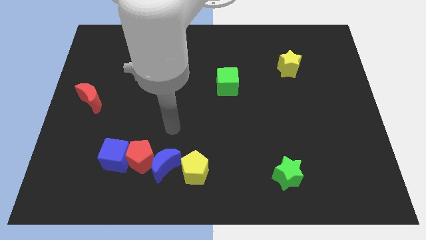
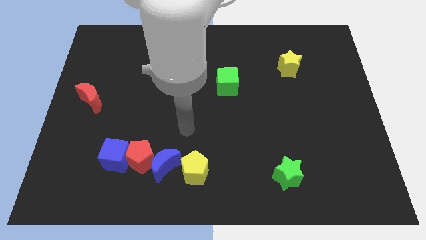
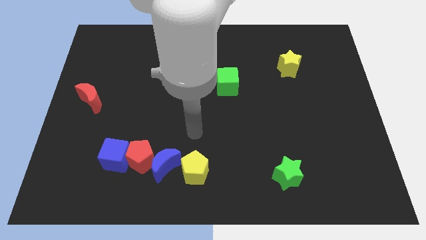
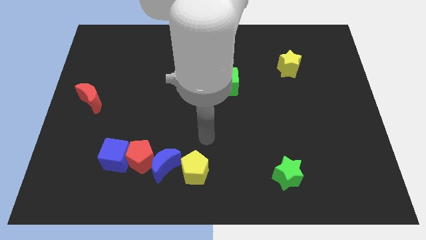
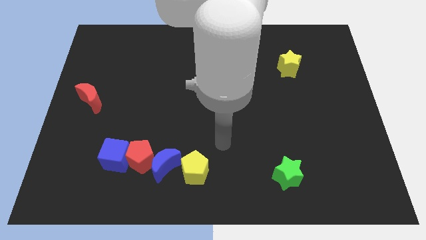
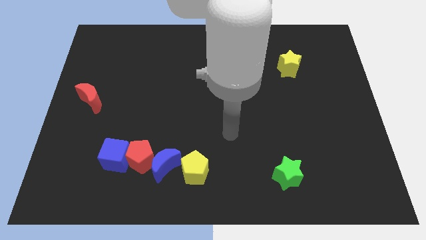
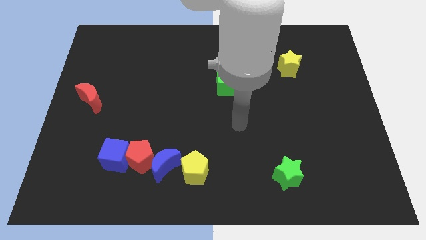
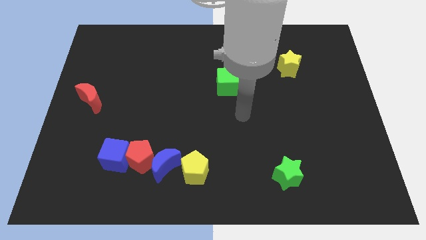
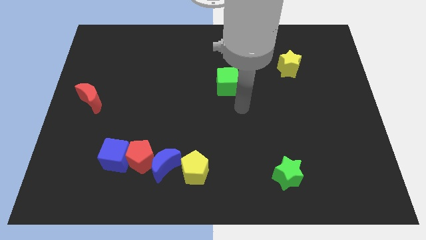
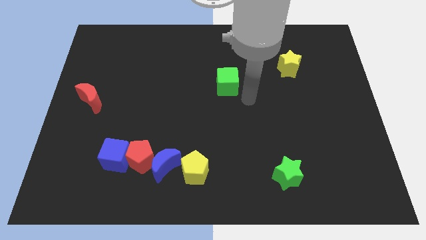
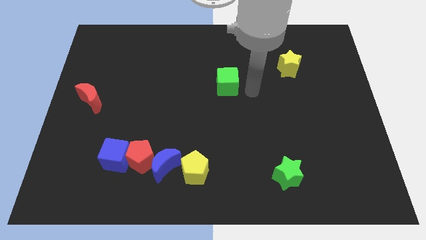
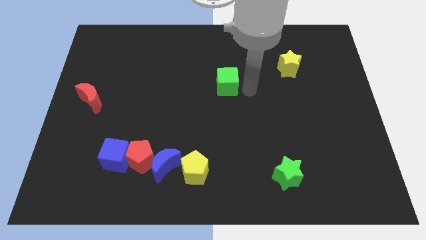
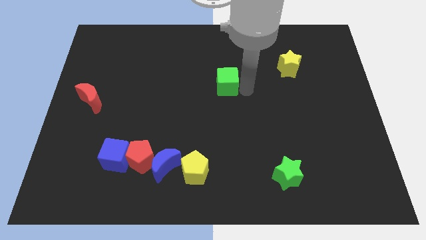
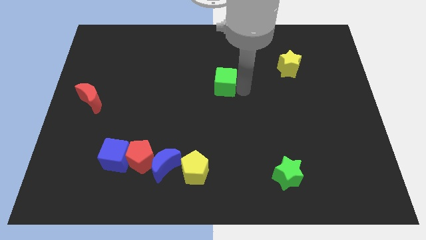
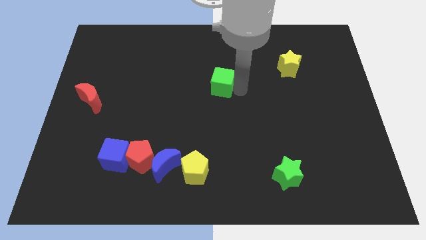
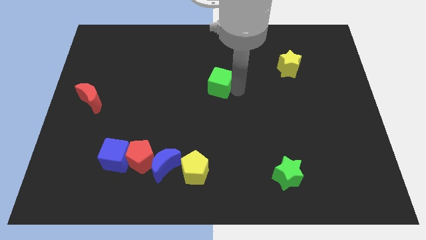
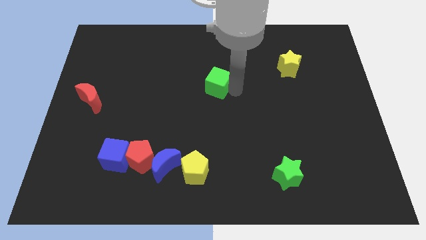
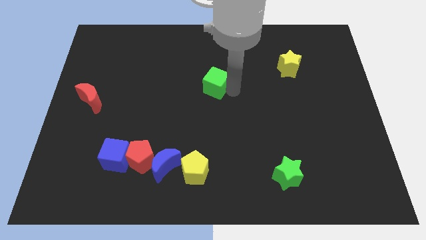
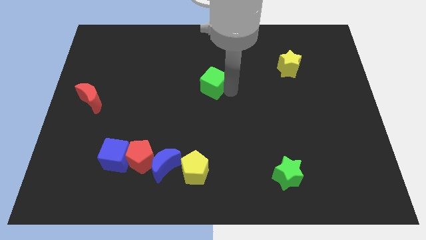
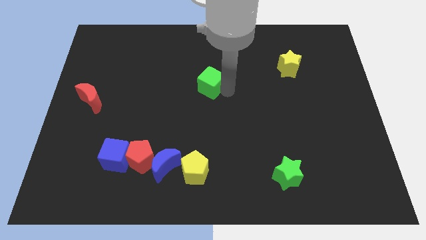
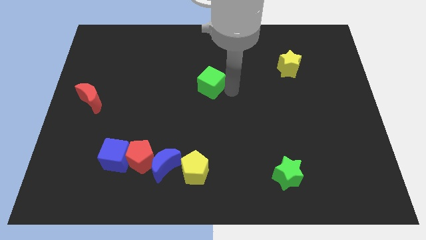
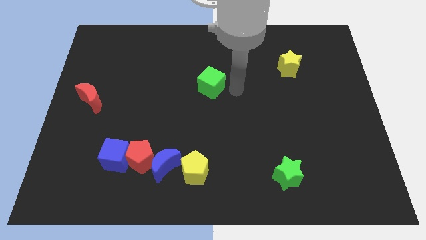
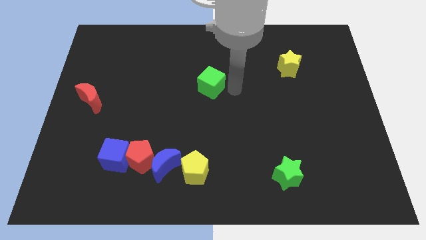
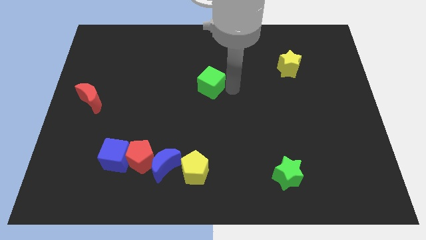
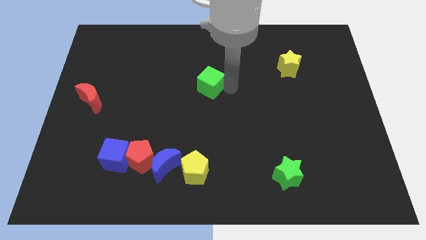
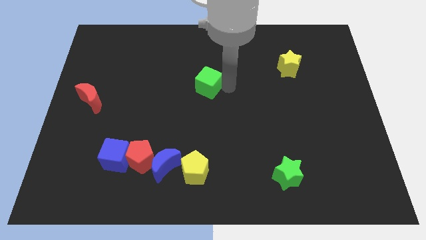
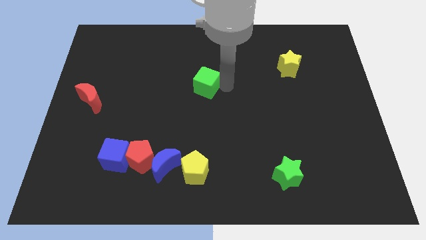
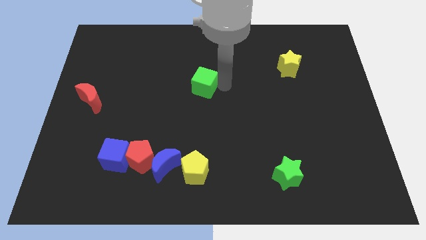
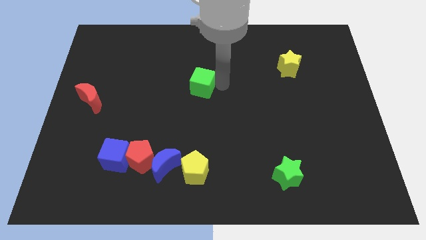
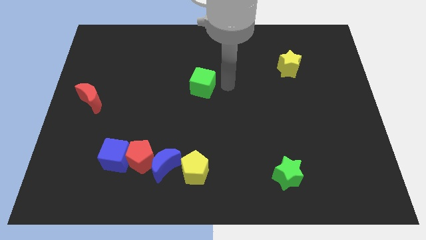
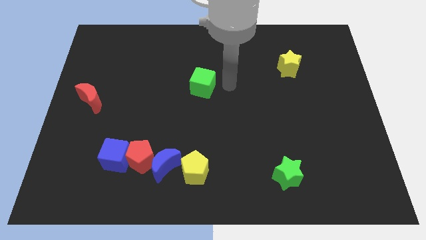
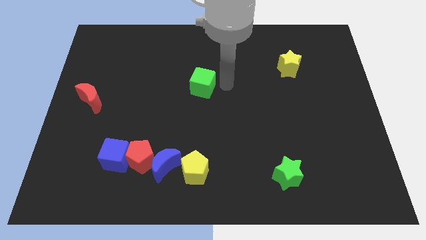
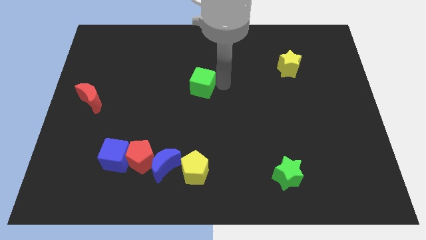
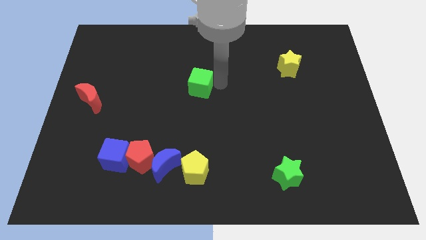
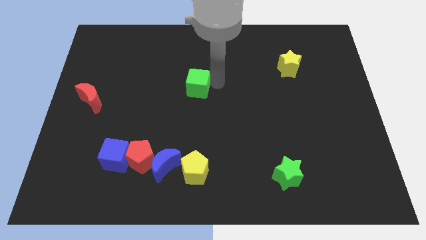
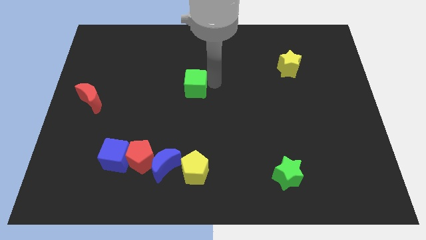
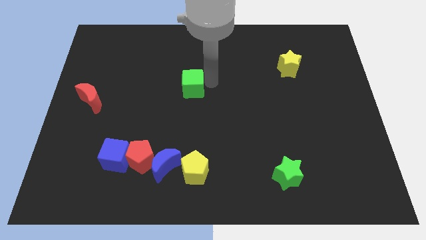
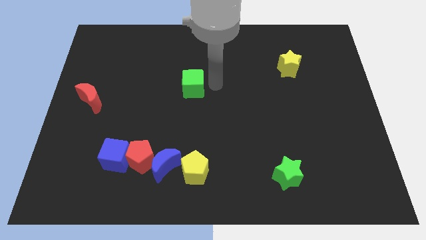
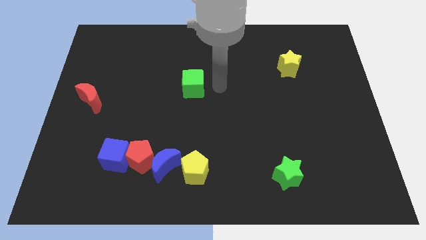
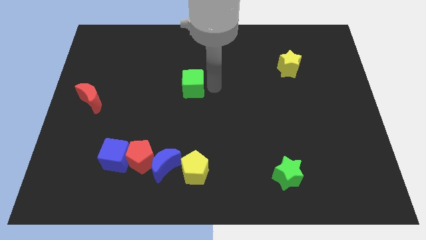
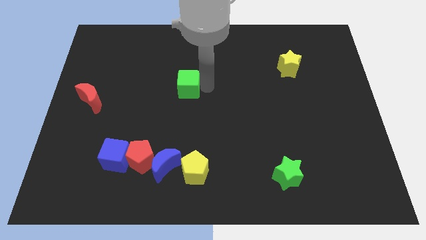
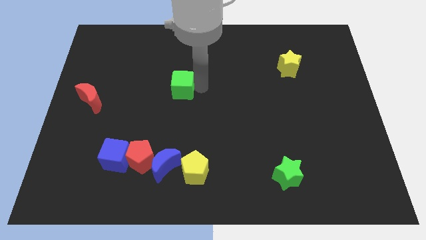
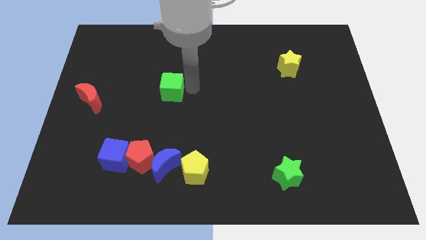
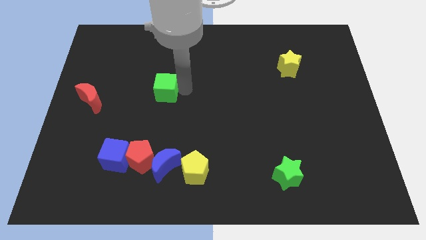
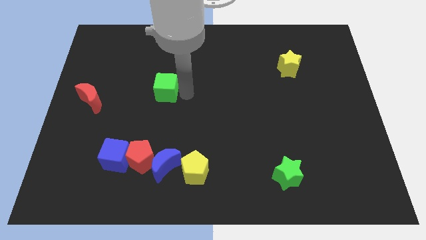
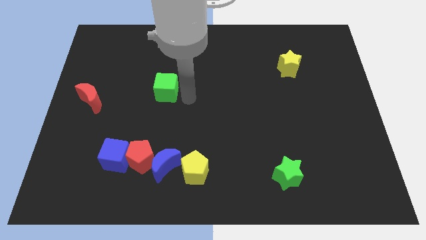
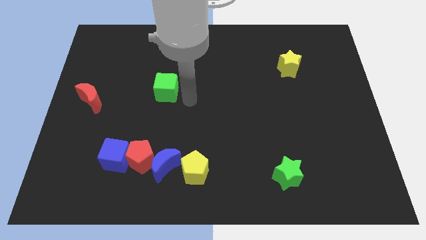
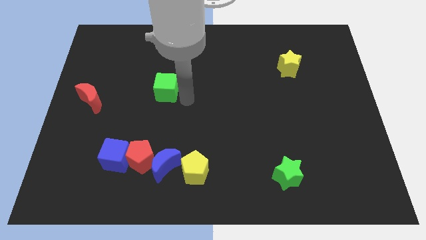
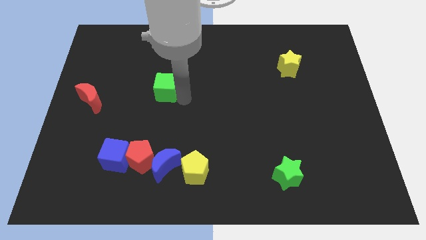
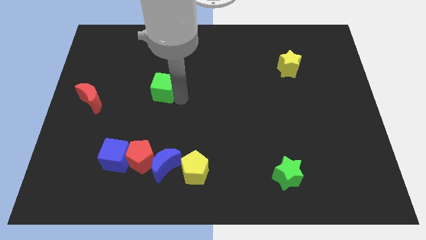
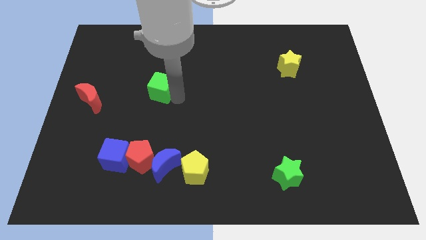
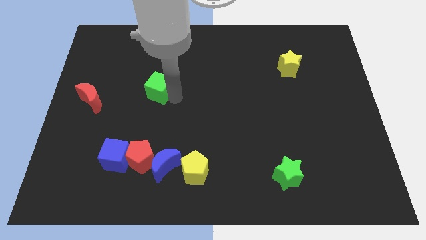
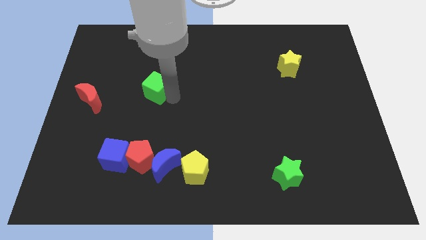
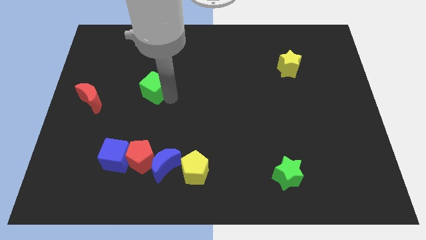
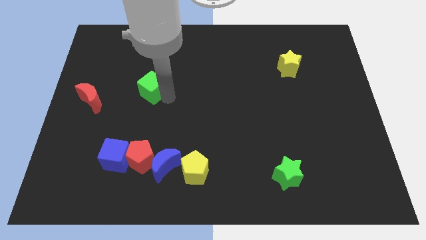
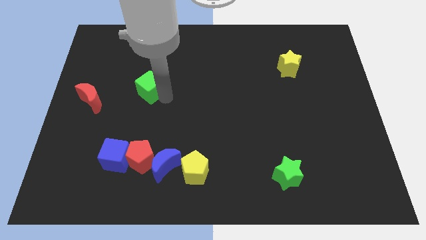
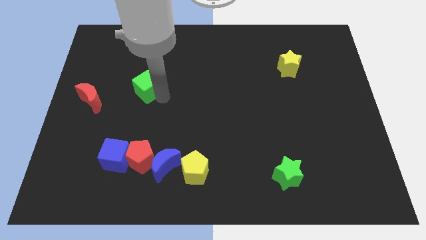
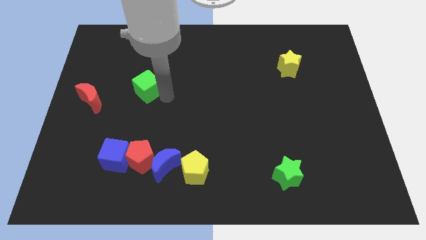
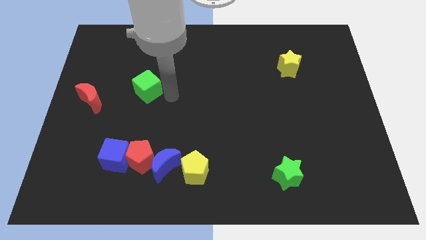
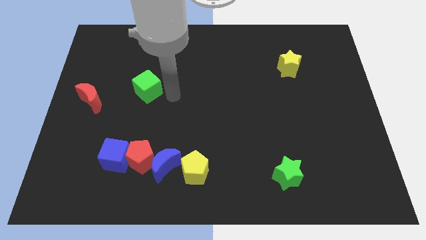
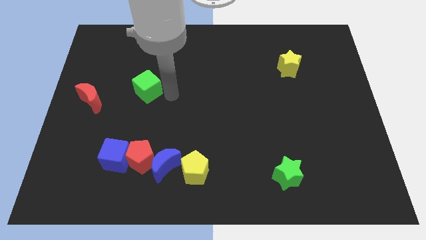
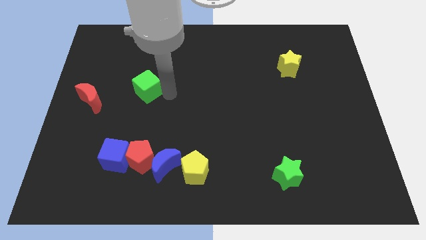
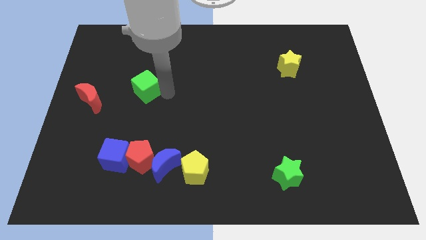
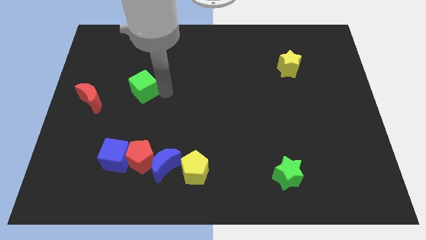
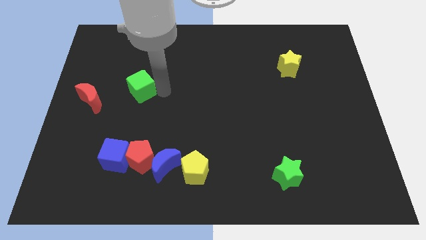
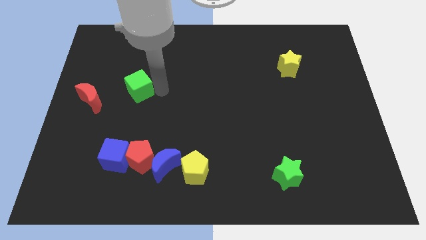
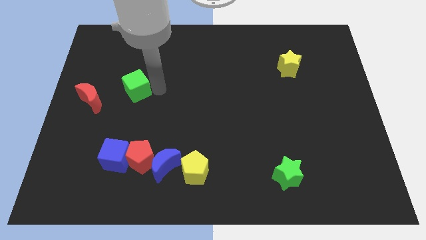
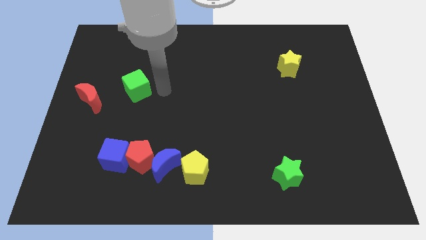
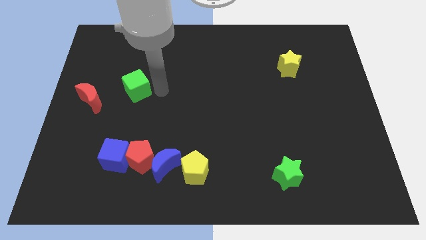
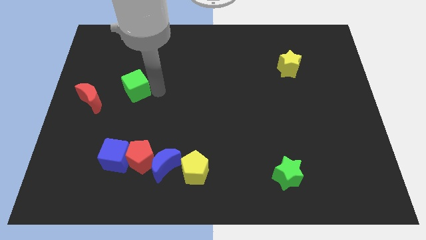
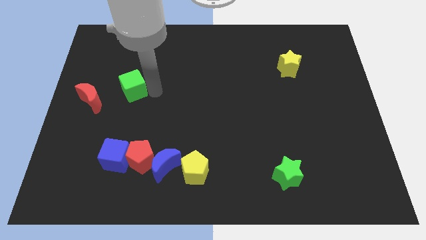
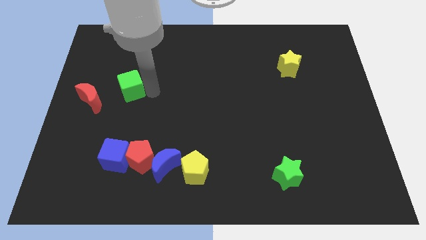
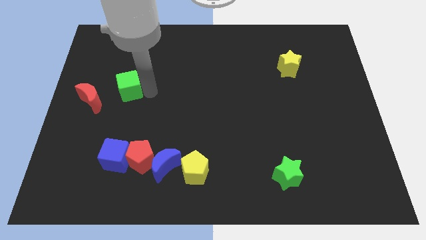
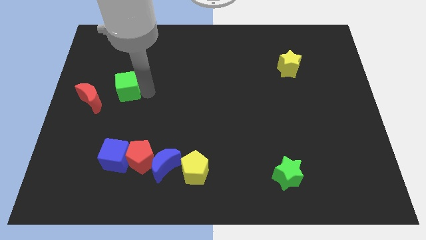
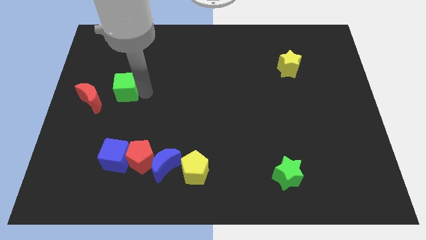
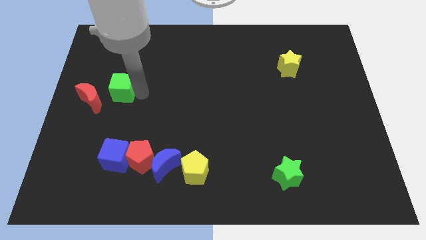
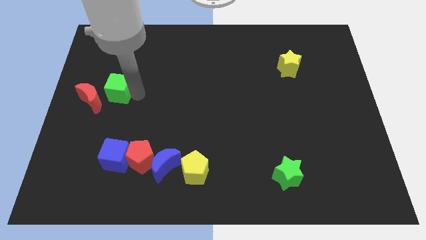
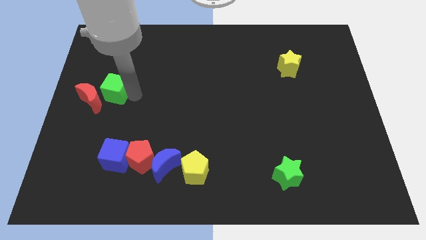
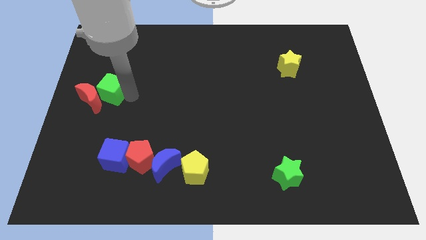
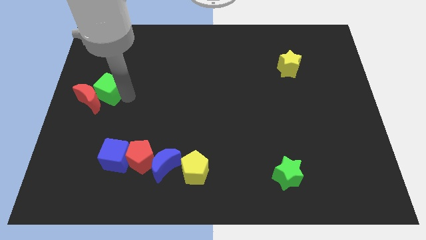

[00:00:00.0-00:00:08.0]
move the green cube to the center left
